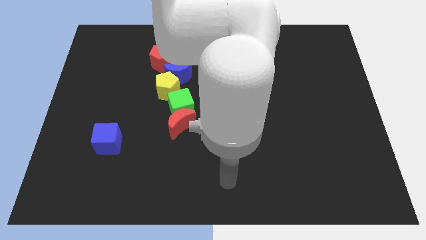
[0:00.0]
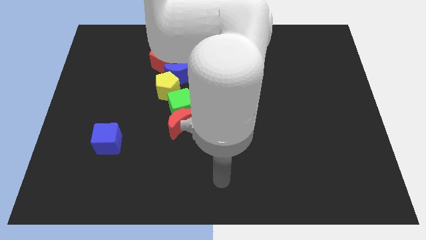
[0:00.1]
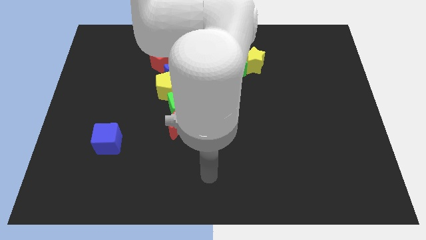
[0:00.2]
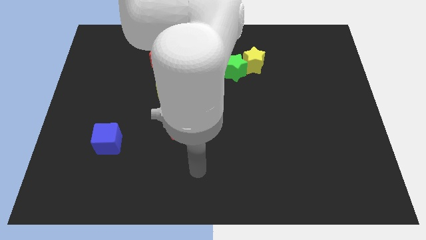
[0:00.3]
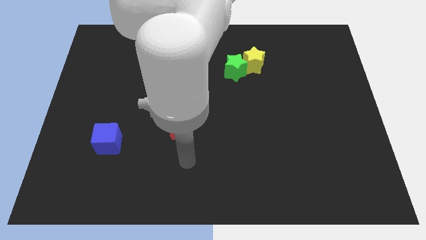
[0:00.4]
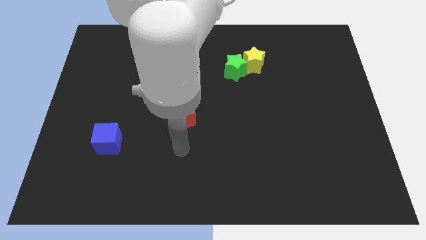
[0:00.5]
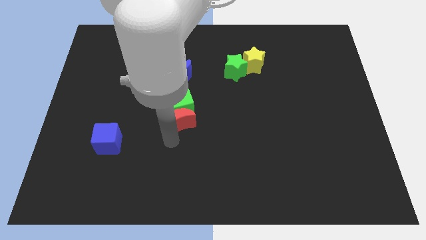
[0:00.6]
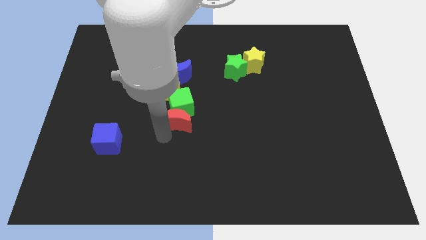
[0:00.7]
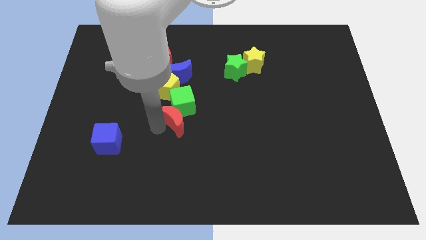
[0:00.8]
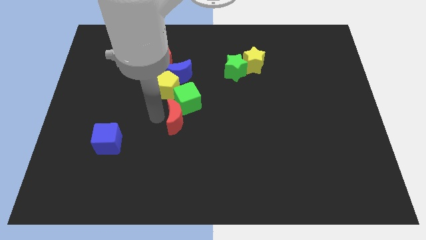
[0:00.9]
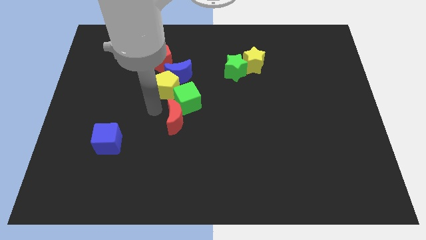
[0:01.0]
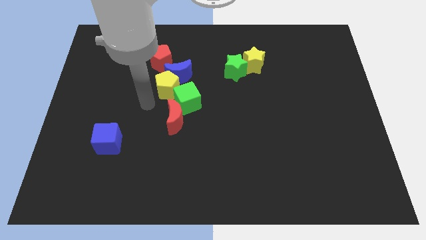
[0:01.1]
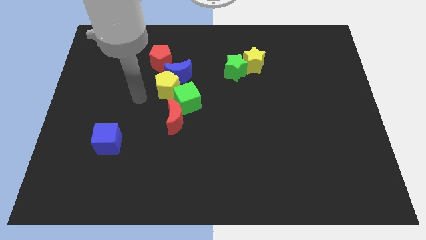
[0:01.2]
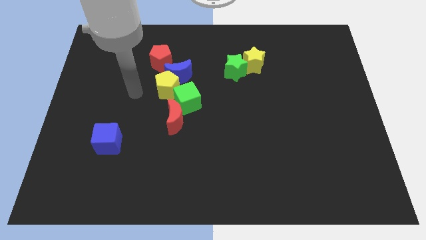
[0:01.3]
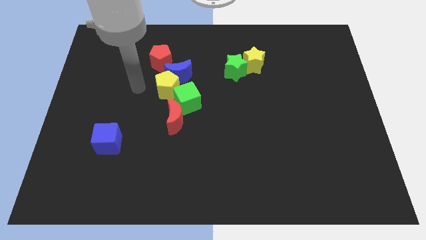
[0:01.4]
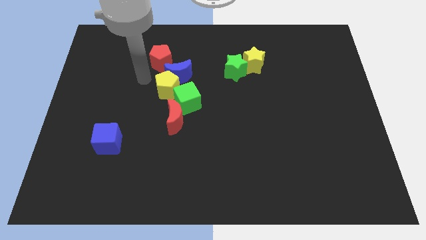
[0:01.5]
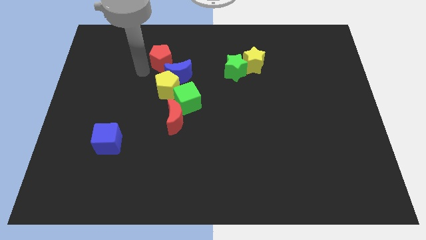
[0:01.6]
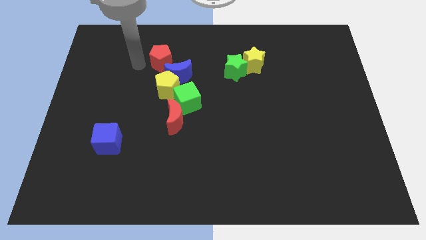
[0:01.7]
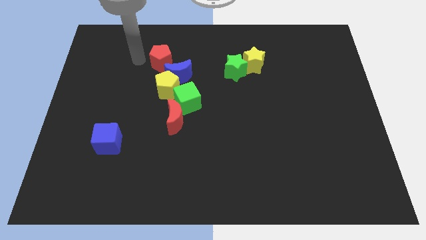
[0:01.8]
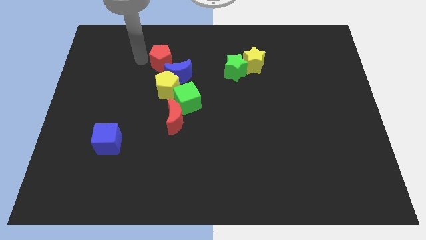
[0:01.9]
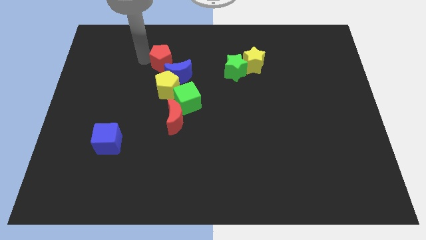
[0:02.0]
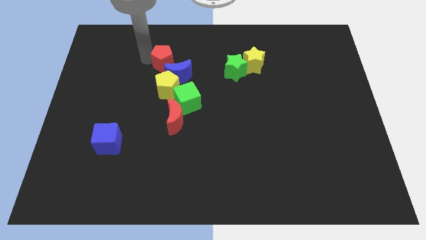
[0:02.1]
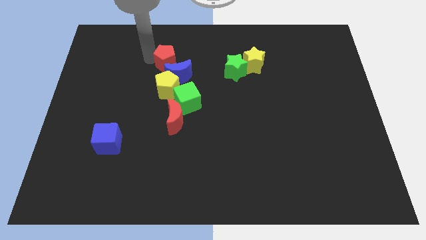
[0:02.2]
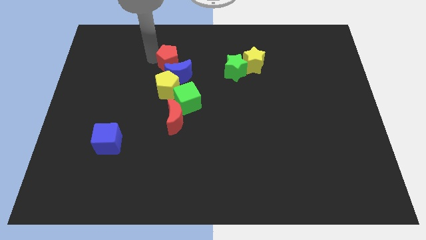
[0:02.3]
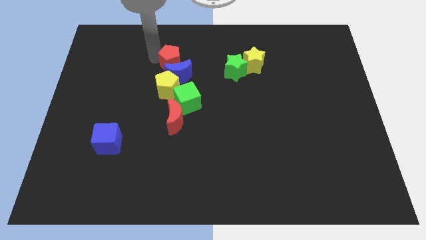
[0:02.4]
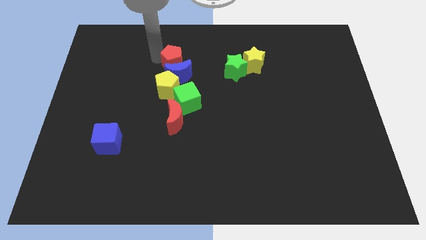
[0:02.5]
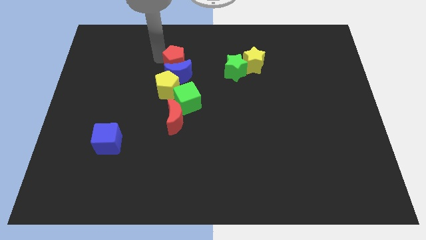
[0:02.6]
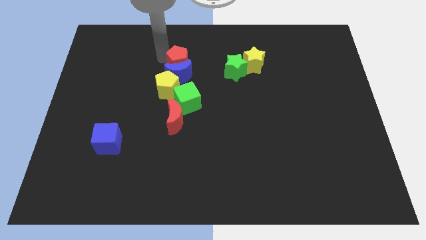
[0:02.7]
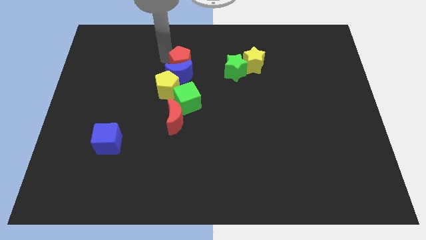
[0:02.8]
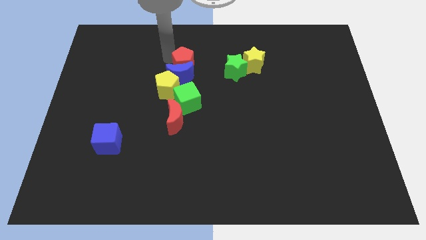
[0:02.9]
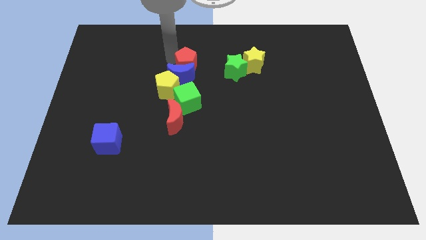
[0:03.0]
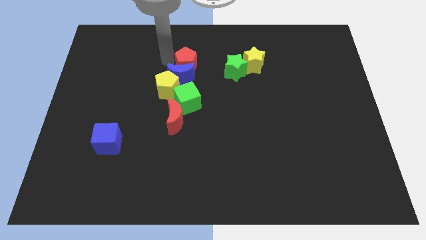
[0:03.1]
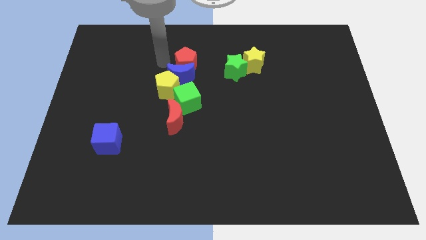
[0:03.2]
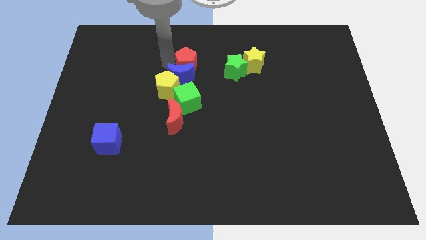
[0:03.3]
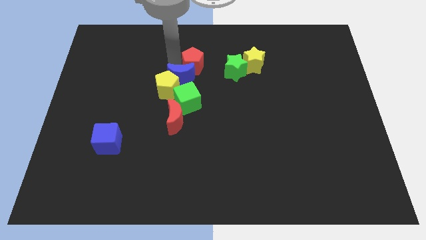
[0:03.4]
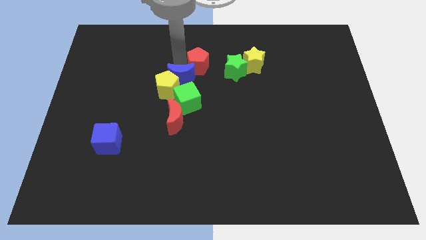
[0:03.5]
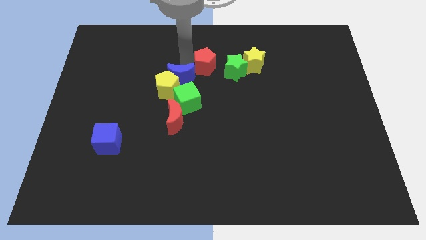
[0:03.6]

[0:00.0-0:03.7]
slide the red pentagon slightly downwards and to the right

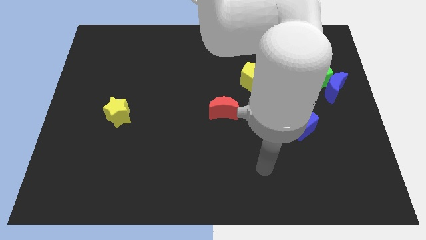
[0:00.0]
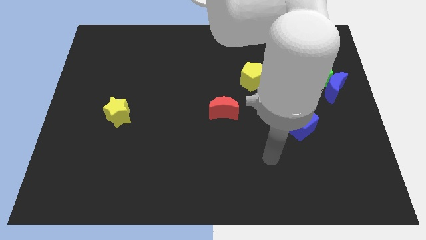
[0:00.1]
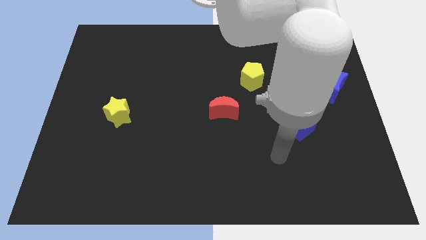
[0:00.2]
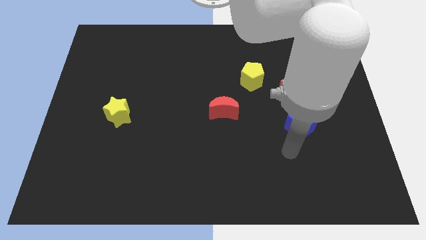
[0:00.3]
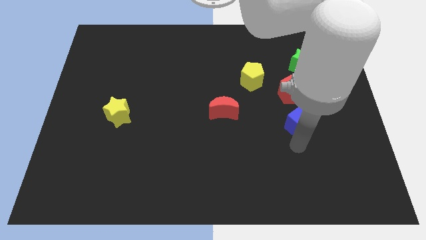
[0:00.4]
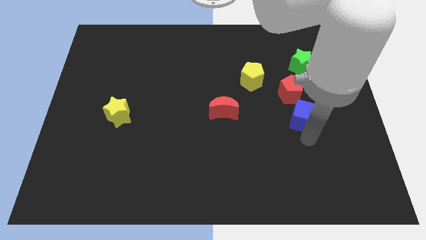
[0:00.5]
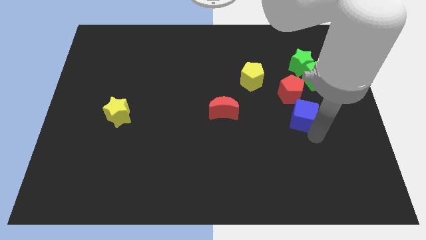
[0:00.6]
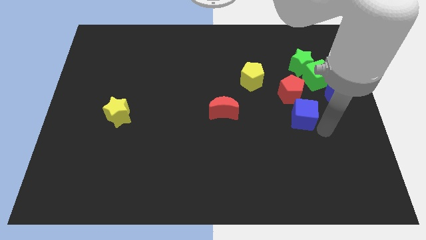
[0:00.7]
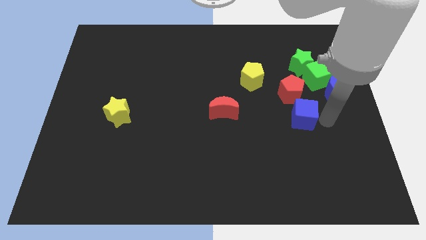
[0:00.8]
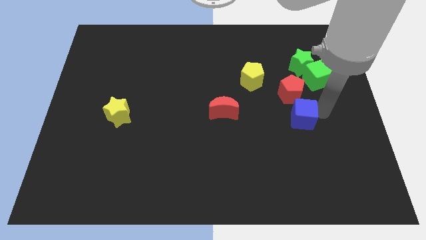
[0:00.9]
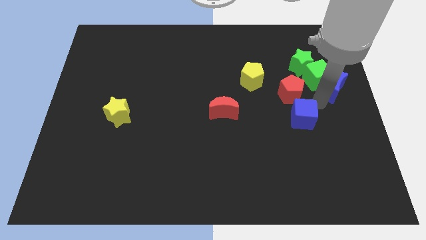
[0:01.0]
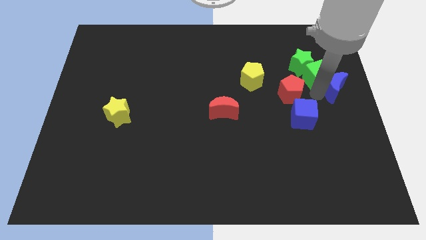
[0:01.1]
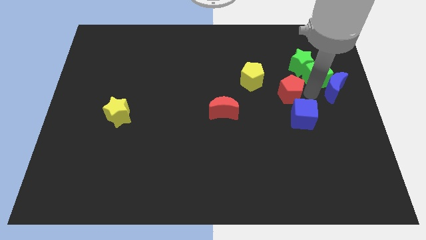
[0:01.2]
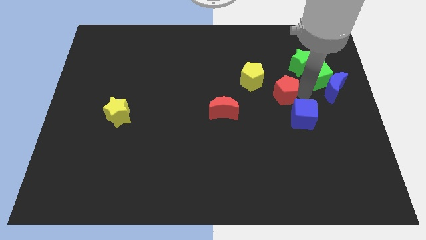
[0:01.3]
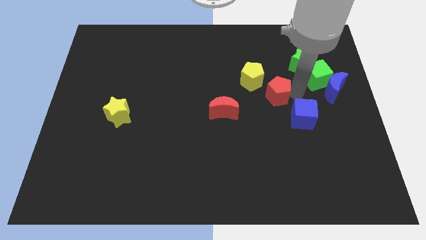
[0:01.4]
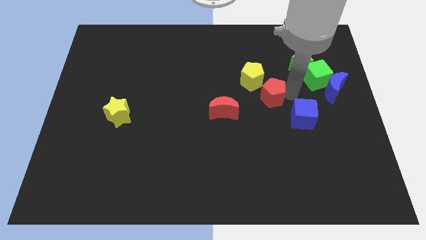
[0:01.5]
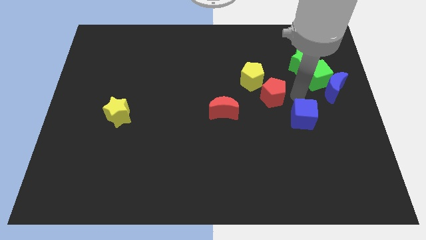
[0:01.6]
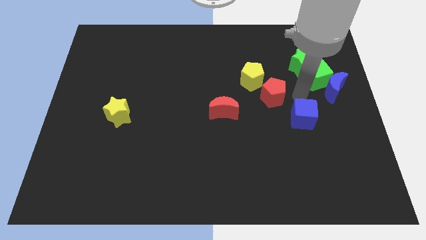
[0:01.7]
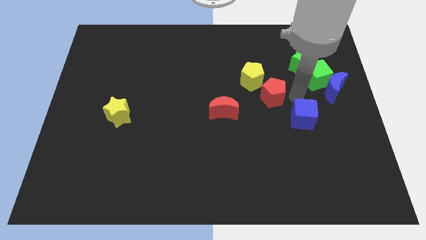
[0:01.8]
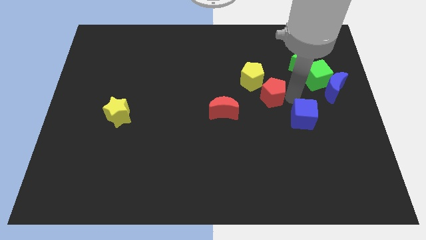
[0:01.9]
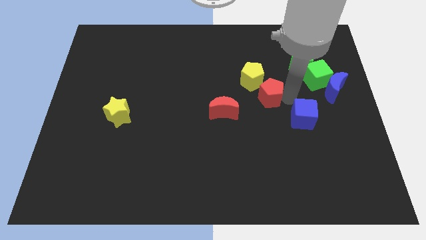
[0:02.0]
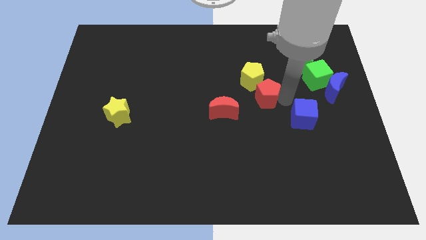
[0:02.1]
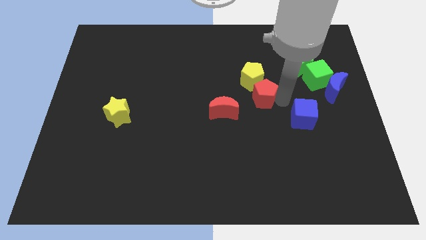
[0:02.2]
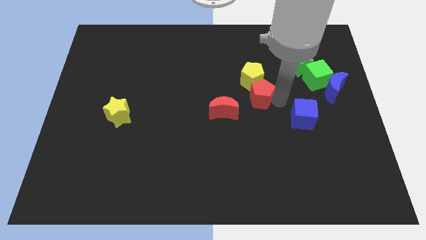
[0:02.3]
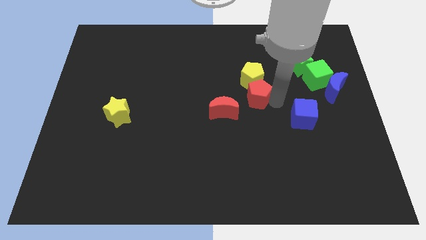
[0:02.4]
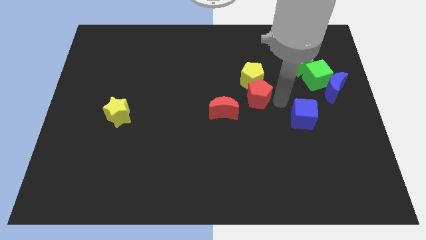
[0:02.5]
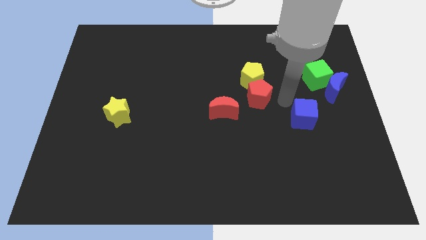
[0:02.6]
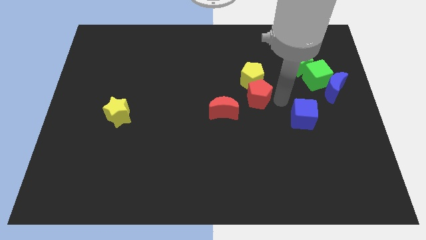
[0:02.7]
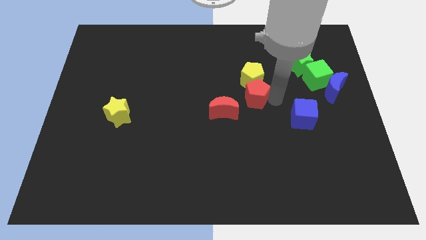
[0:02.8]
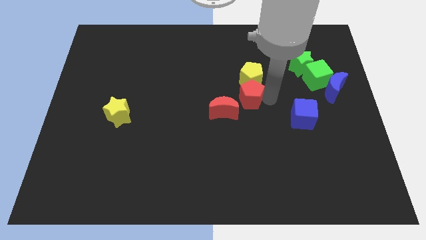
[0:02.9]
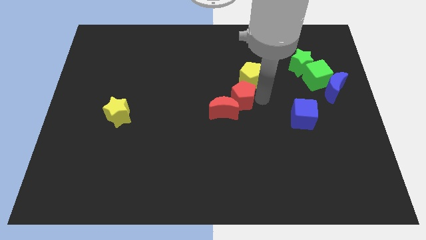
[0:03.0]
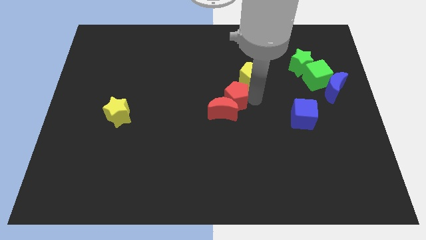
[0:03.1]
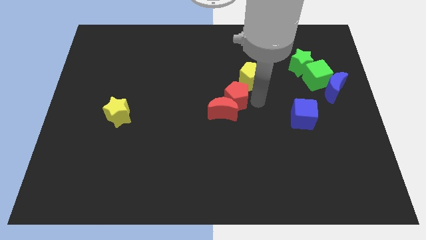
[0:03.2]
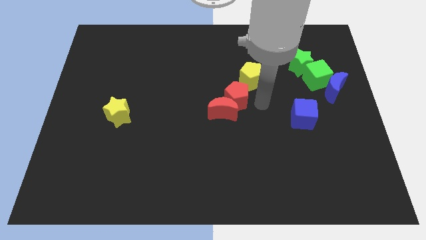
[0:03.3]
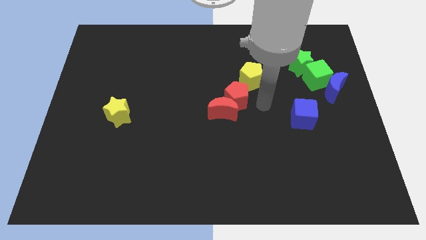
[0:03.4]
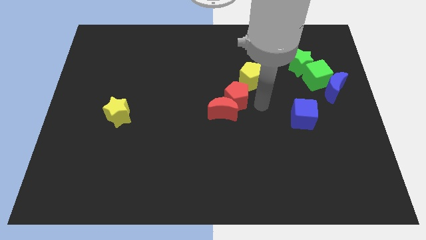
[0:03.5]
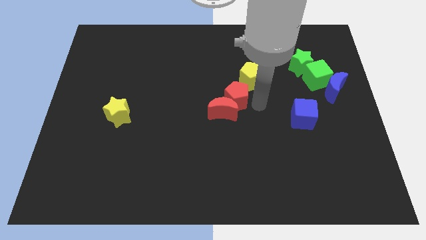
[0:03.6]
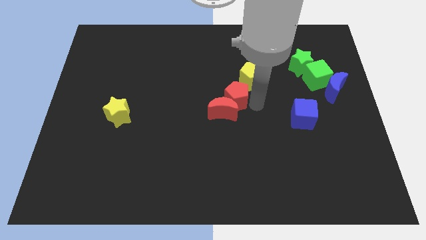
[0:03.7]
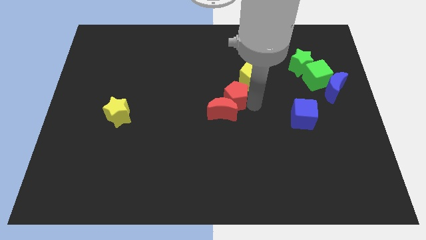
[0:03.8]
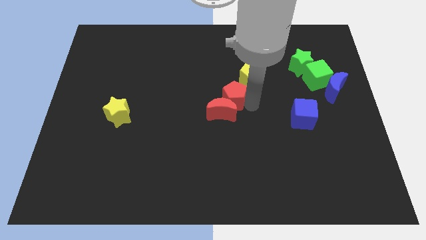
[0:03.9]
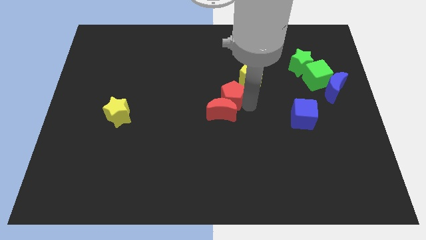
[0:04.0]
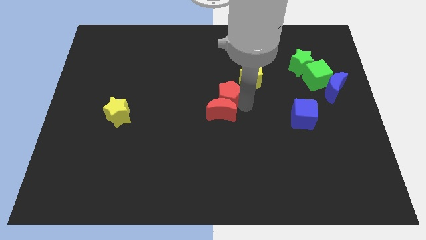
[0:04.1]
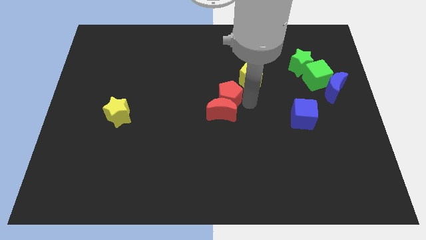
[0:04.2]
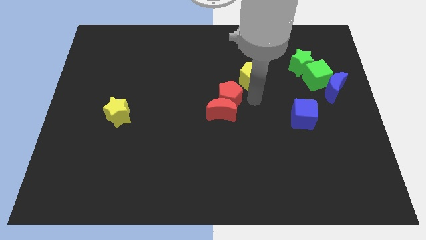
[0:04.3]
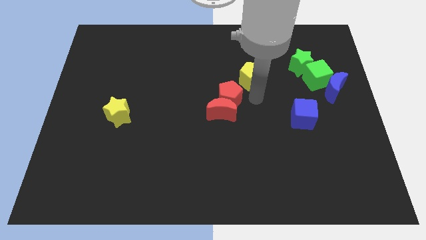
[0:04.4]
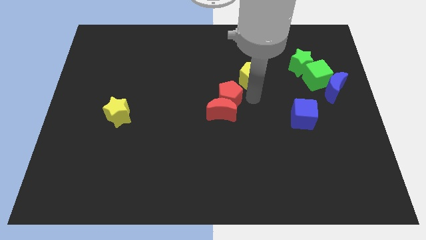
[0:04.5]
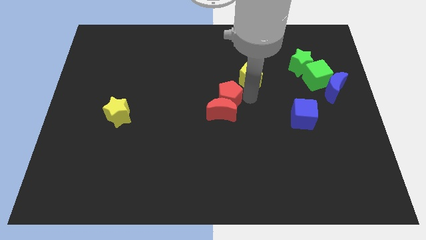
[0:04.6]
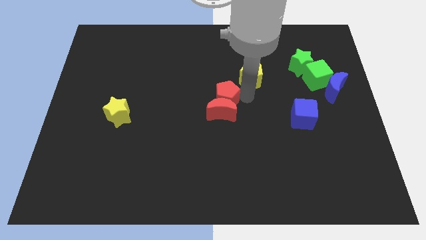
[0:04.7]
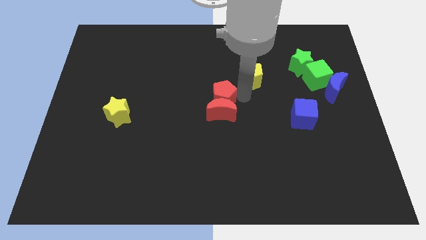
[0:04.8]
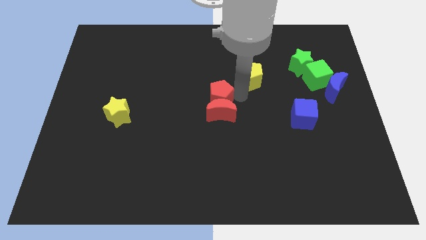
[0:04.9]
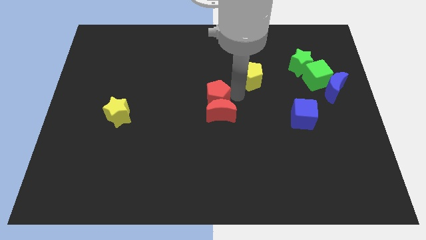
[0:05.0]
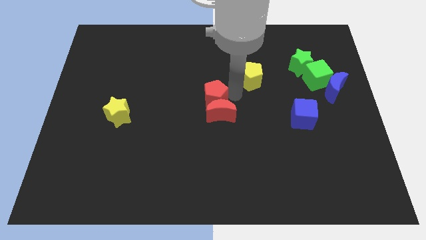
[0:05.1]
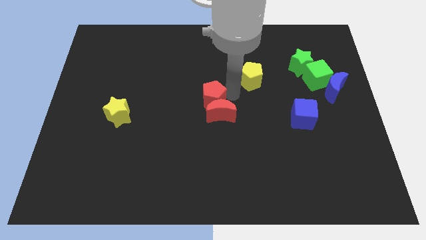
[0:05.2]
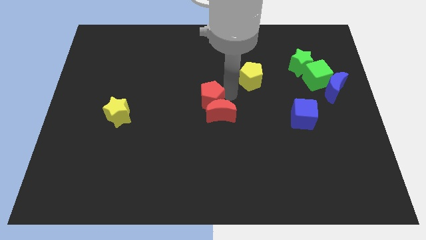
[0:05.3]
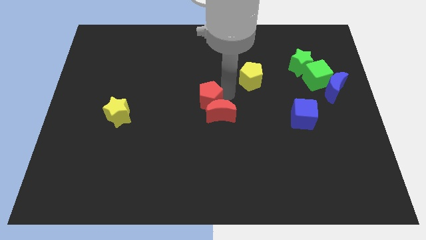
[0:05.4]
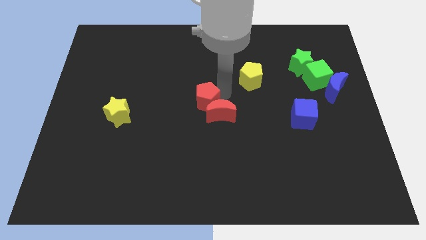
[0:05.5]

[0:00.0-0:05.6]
push the red pentagon left
